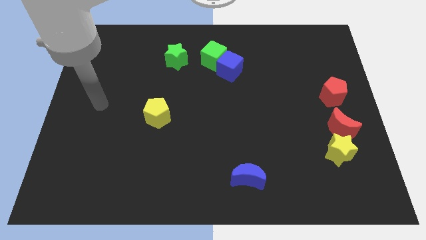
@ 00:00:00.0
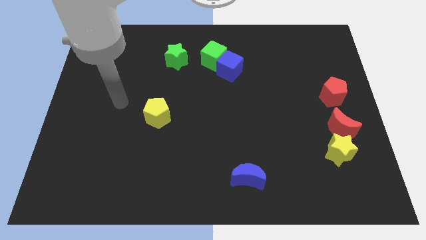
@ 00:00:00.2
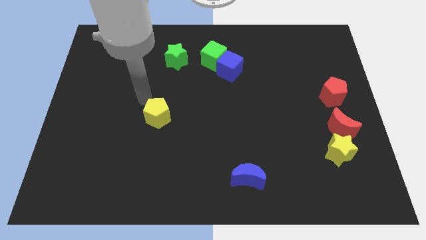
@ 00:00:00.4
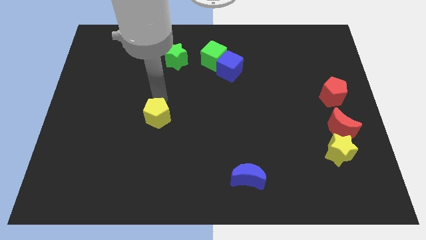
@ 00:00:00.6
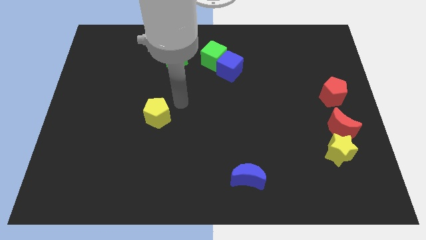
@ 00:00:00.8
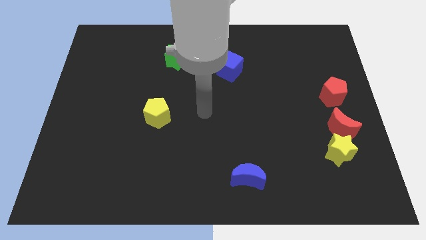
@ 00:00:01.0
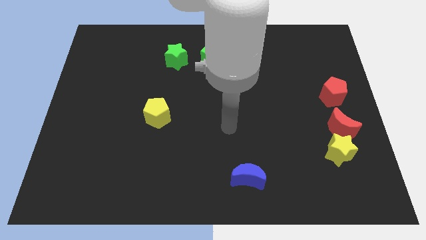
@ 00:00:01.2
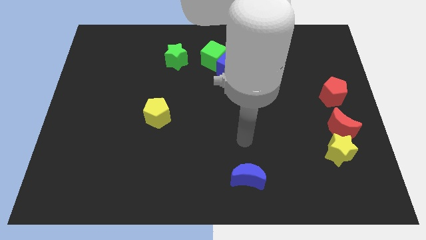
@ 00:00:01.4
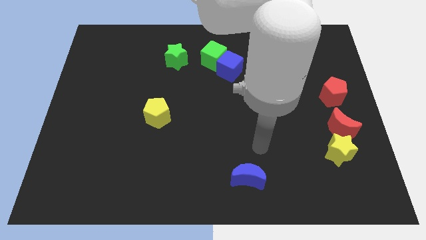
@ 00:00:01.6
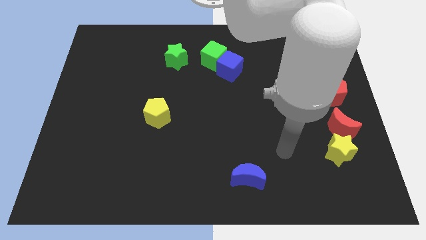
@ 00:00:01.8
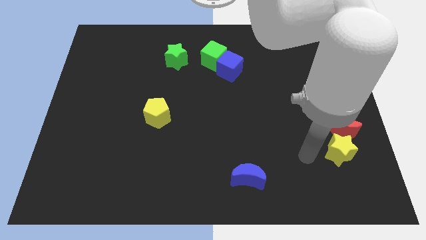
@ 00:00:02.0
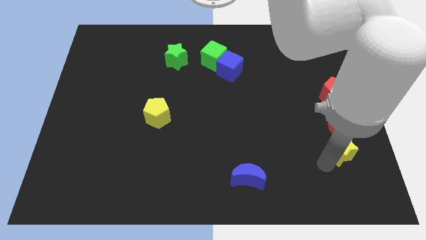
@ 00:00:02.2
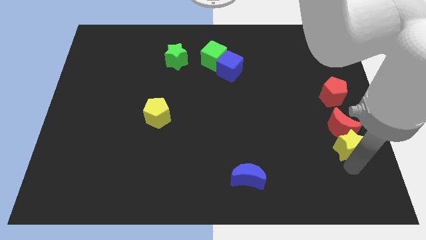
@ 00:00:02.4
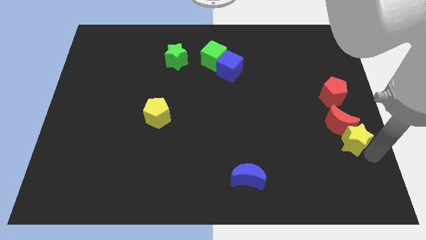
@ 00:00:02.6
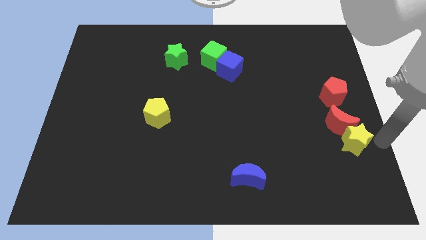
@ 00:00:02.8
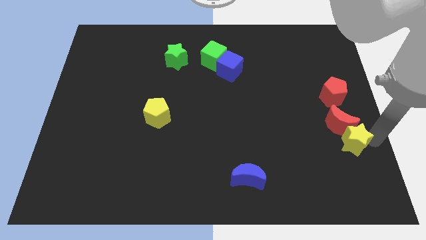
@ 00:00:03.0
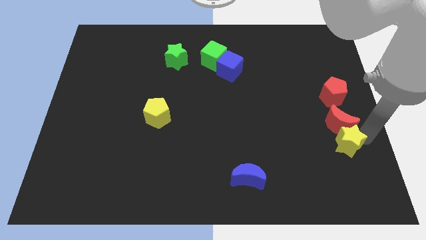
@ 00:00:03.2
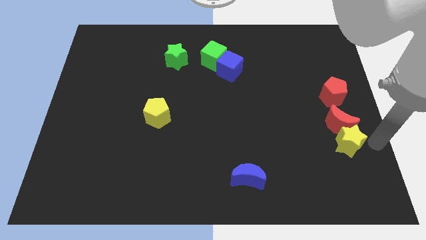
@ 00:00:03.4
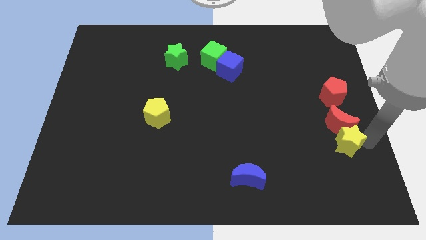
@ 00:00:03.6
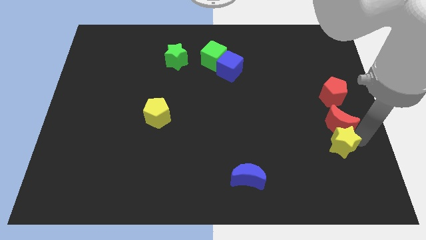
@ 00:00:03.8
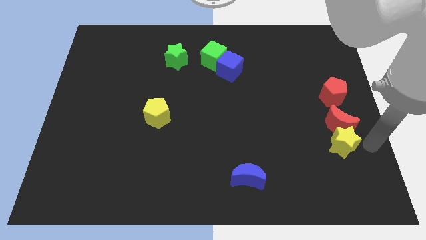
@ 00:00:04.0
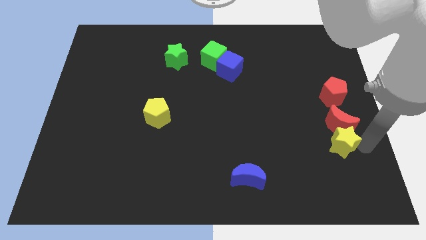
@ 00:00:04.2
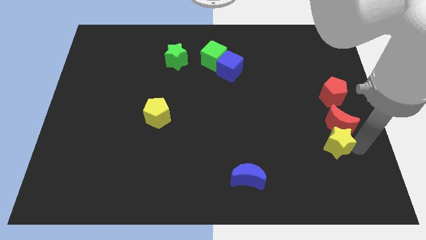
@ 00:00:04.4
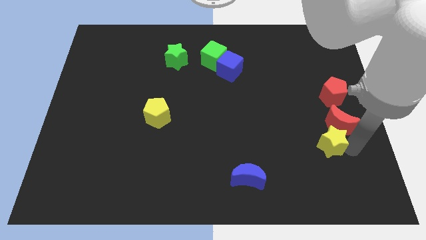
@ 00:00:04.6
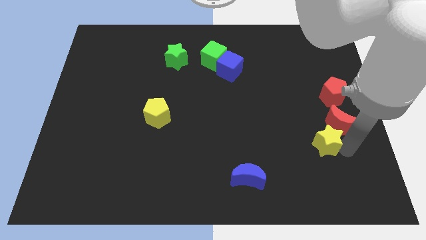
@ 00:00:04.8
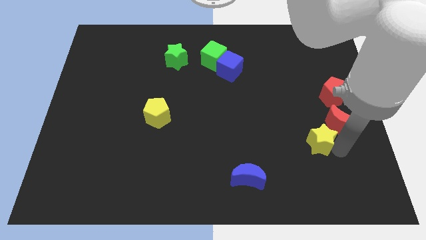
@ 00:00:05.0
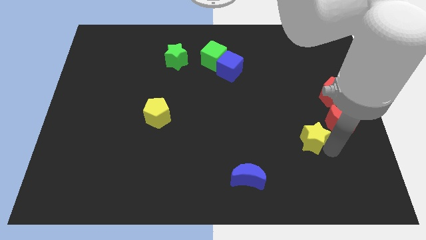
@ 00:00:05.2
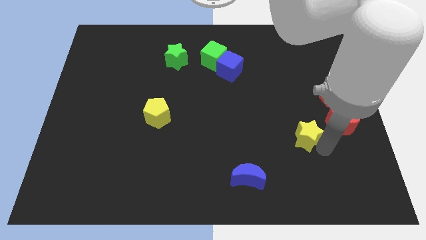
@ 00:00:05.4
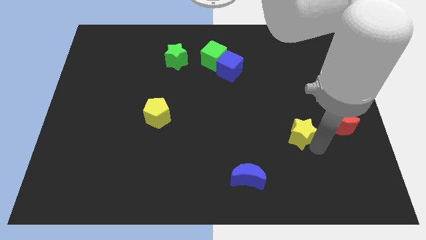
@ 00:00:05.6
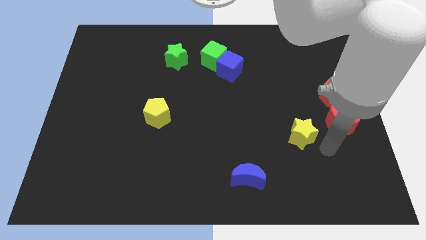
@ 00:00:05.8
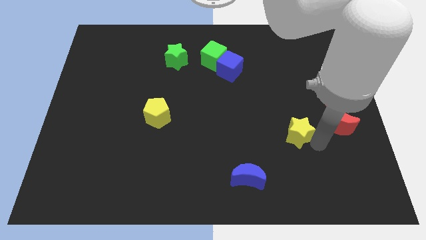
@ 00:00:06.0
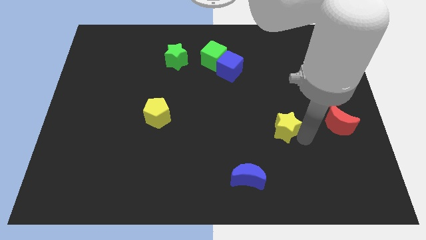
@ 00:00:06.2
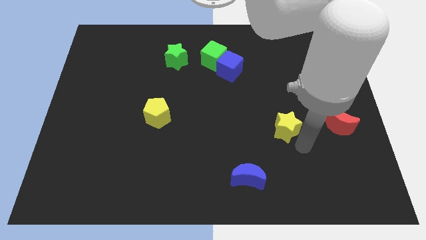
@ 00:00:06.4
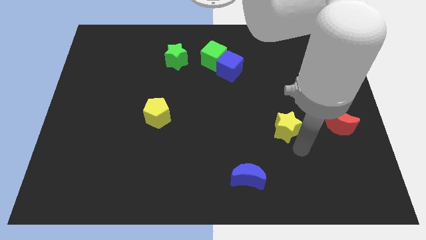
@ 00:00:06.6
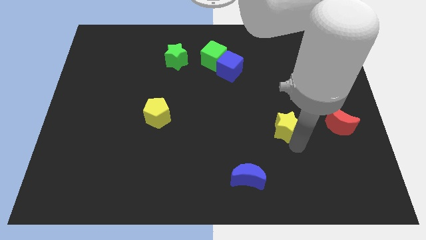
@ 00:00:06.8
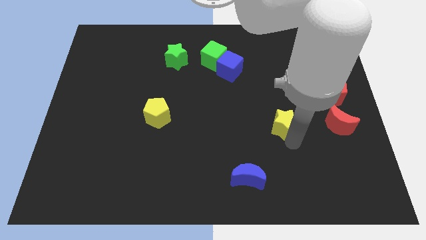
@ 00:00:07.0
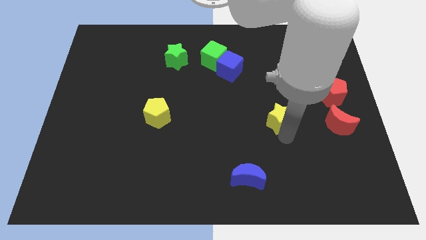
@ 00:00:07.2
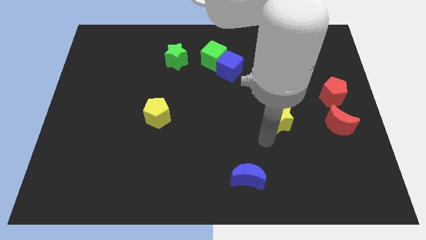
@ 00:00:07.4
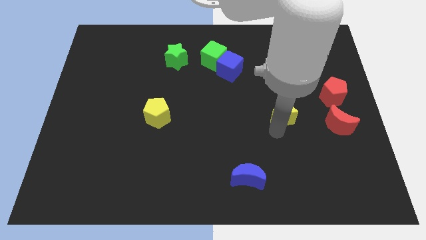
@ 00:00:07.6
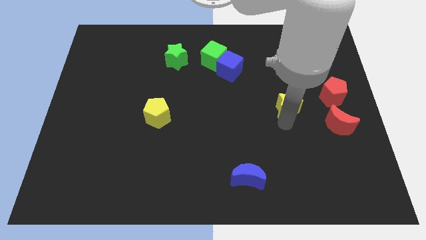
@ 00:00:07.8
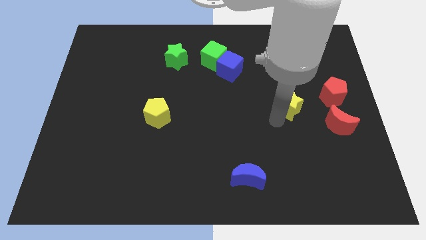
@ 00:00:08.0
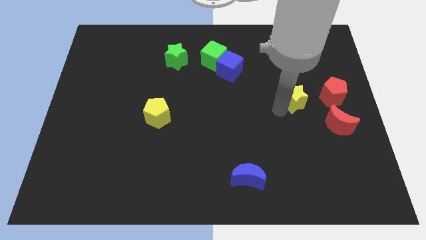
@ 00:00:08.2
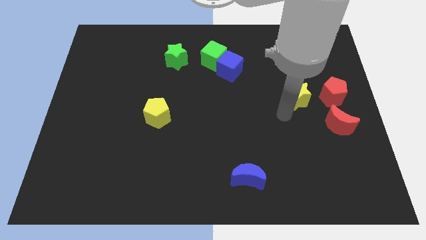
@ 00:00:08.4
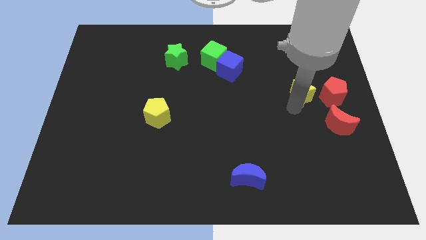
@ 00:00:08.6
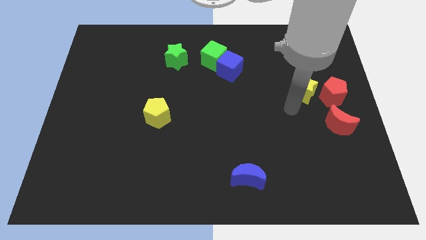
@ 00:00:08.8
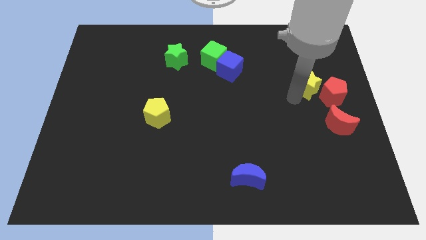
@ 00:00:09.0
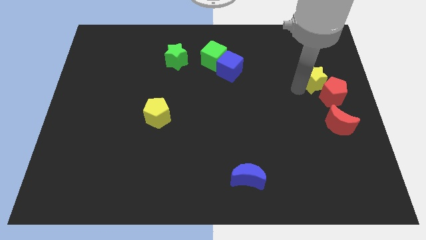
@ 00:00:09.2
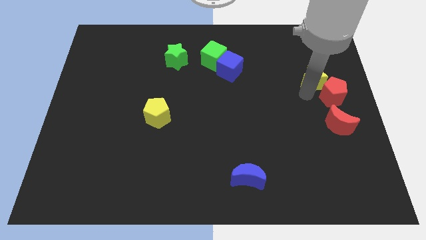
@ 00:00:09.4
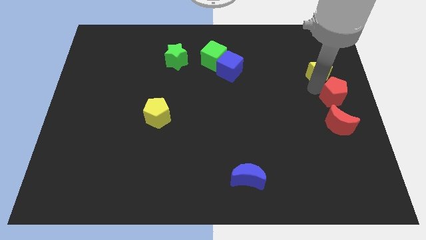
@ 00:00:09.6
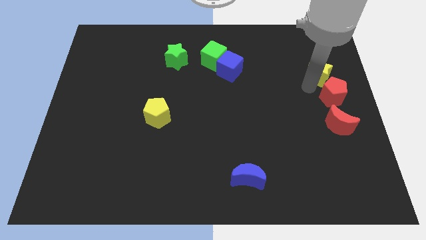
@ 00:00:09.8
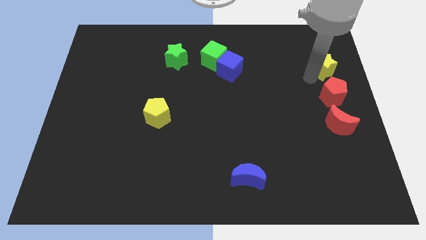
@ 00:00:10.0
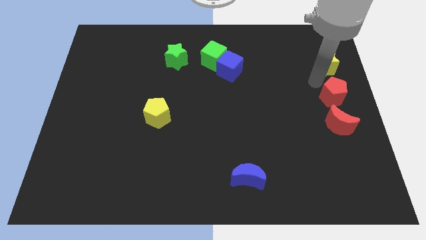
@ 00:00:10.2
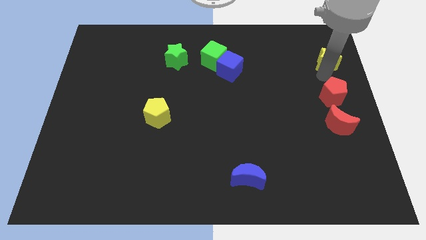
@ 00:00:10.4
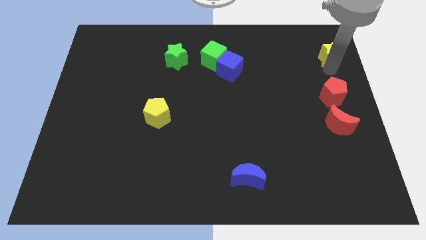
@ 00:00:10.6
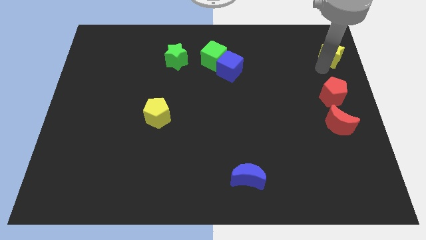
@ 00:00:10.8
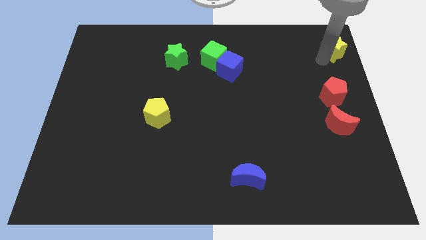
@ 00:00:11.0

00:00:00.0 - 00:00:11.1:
slide the yellow star to the upper right corner
